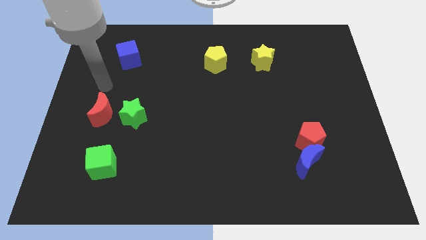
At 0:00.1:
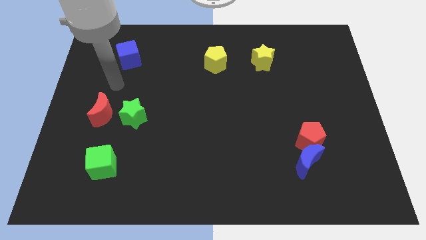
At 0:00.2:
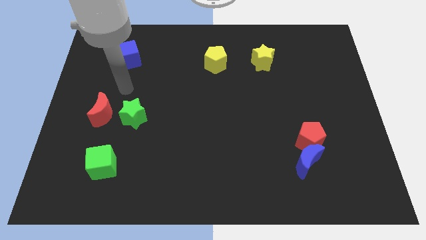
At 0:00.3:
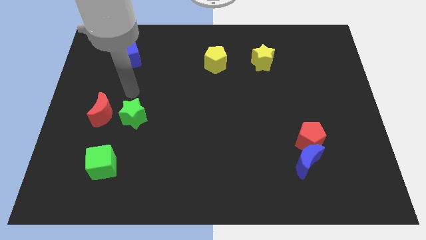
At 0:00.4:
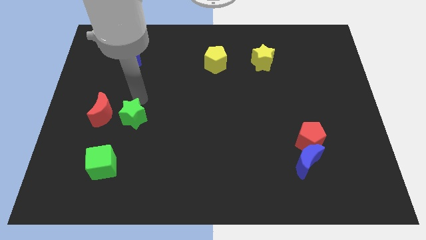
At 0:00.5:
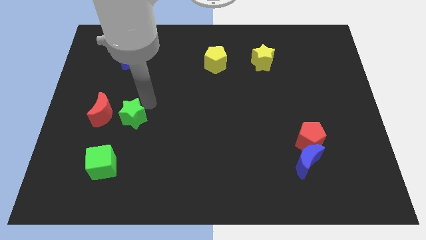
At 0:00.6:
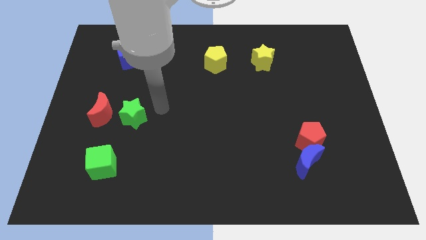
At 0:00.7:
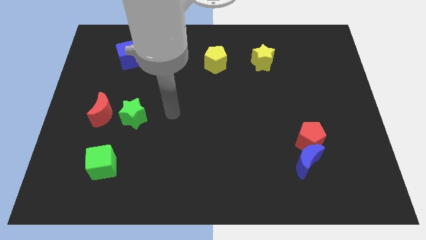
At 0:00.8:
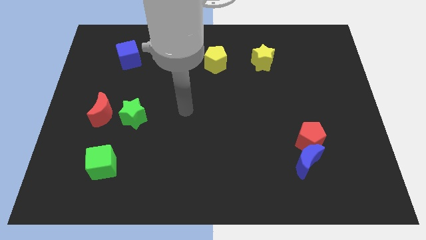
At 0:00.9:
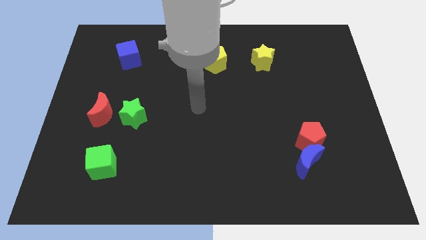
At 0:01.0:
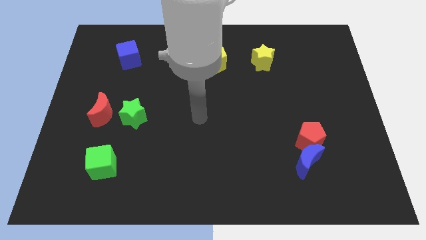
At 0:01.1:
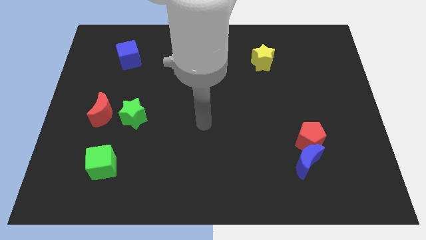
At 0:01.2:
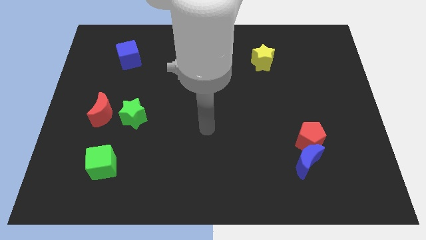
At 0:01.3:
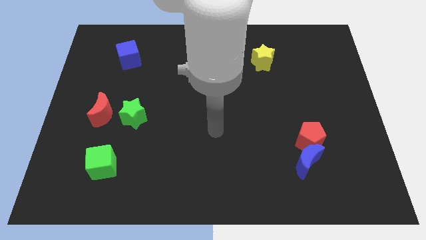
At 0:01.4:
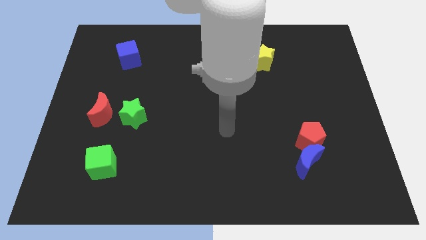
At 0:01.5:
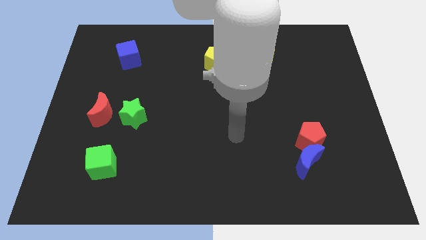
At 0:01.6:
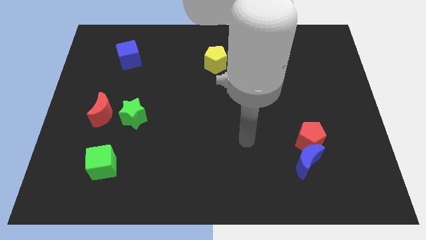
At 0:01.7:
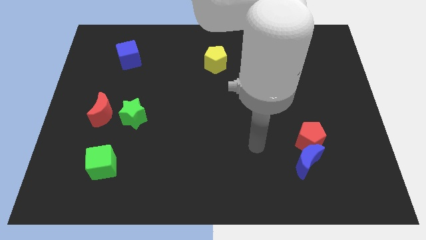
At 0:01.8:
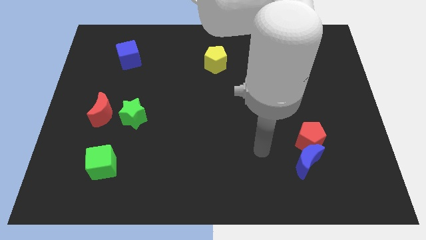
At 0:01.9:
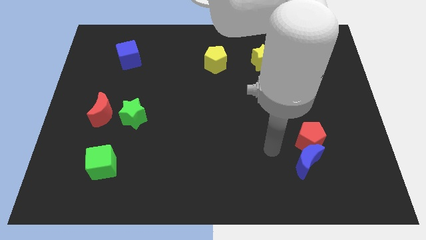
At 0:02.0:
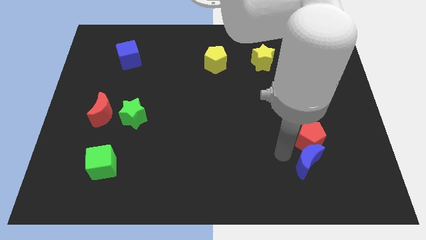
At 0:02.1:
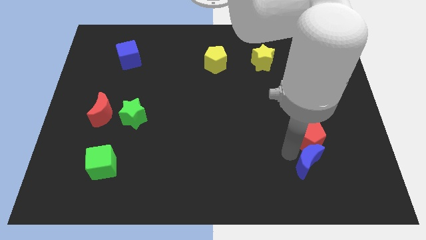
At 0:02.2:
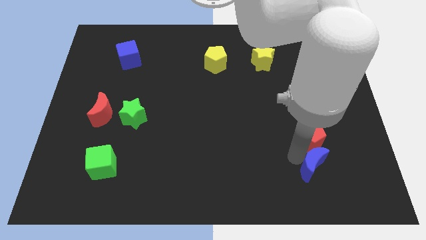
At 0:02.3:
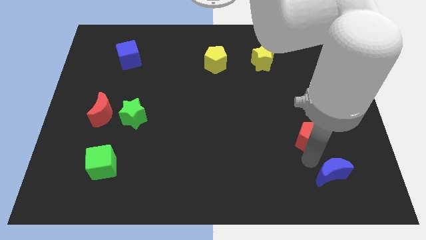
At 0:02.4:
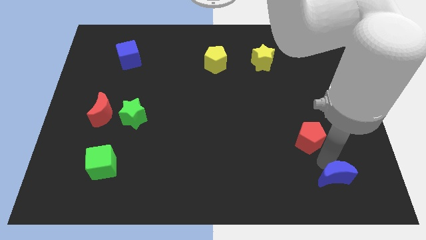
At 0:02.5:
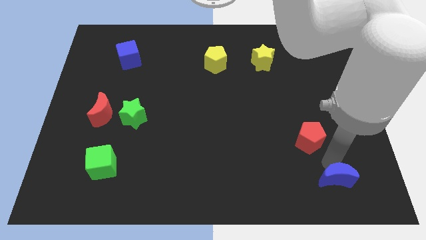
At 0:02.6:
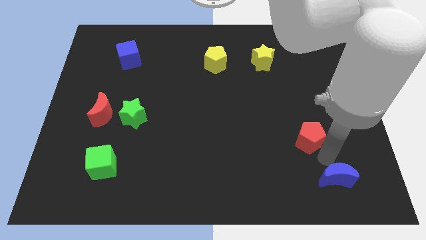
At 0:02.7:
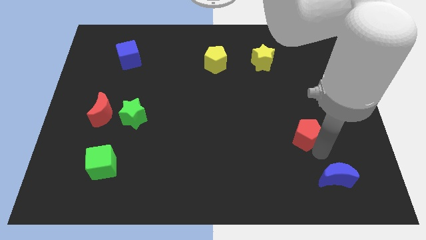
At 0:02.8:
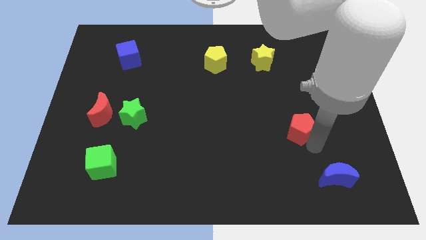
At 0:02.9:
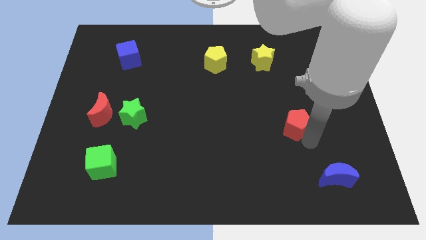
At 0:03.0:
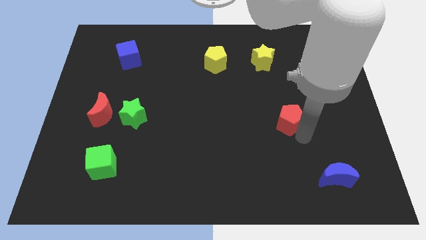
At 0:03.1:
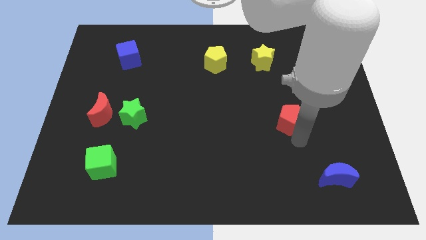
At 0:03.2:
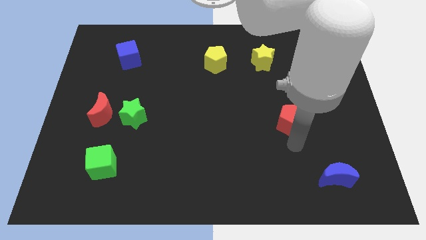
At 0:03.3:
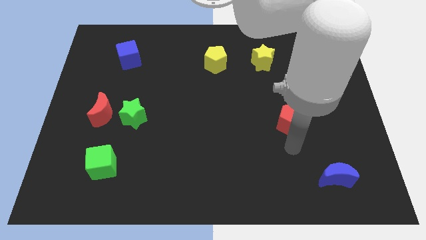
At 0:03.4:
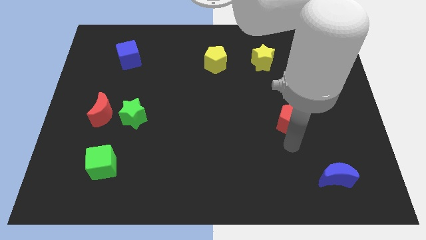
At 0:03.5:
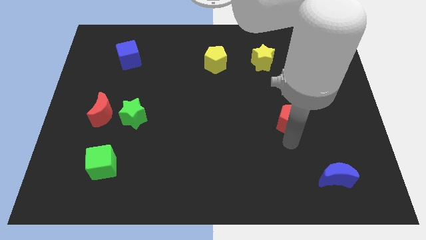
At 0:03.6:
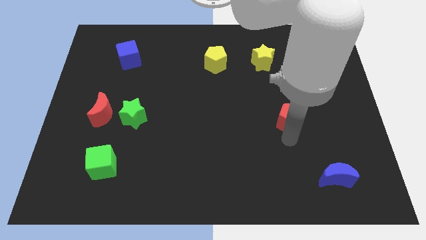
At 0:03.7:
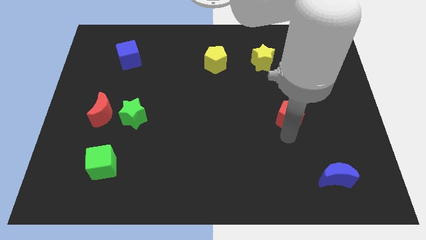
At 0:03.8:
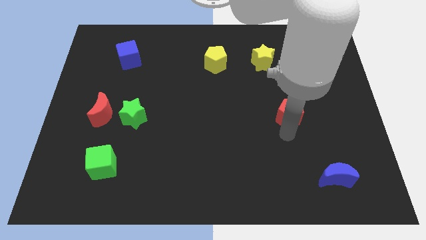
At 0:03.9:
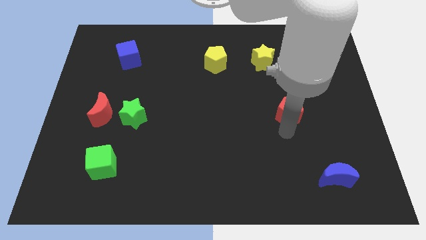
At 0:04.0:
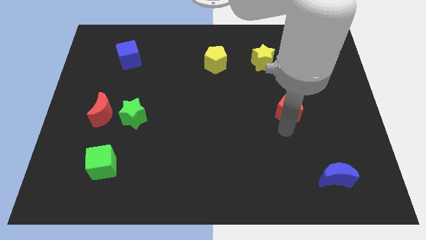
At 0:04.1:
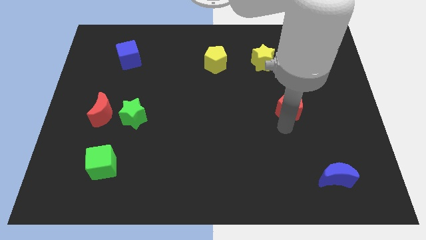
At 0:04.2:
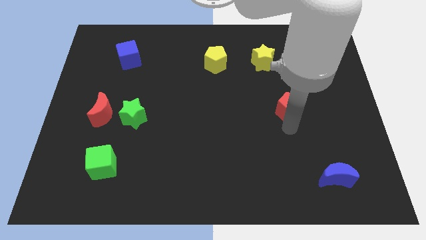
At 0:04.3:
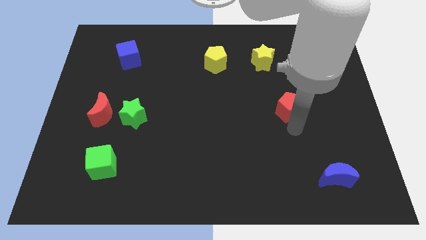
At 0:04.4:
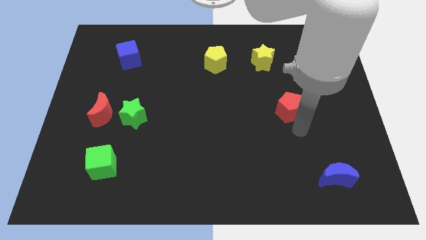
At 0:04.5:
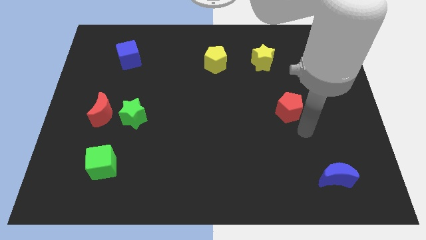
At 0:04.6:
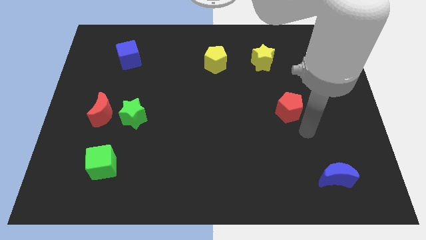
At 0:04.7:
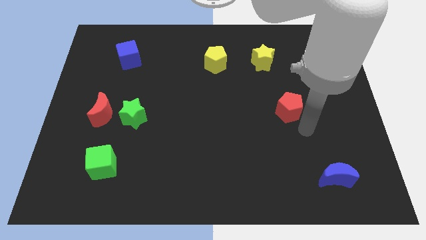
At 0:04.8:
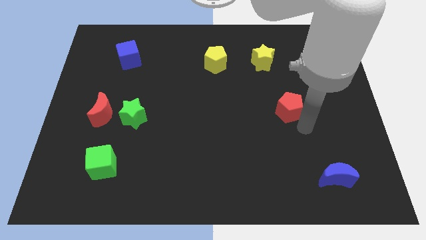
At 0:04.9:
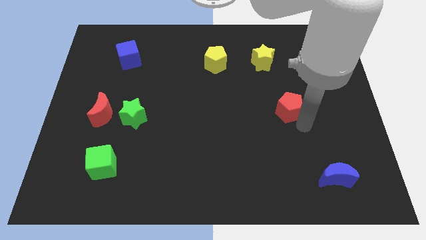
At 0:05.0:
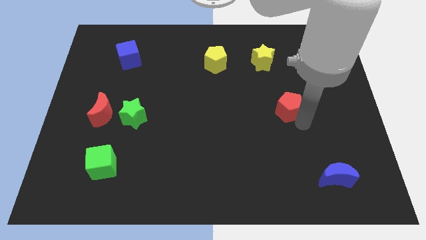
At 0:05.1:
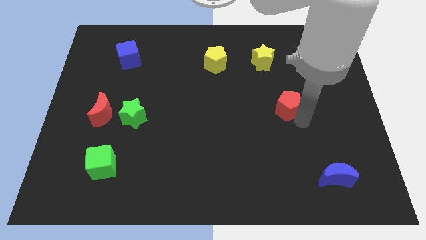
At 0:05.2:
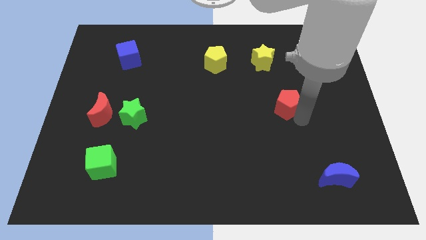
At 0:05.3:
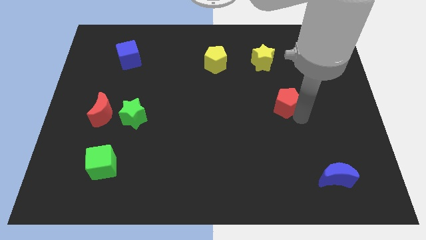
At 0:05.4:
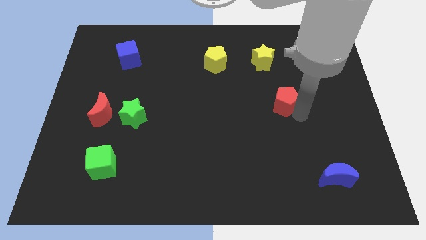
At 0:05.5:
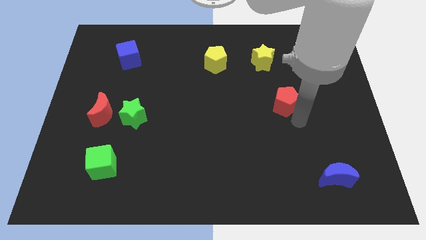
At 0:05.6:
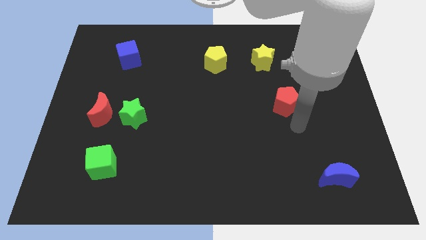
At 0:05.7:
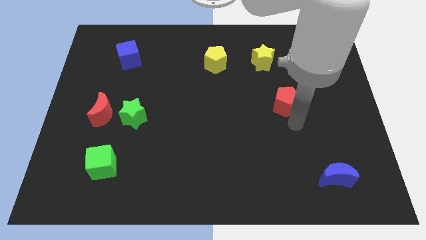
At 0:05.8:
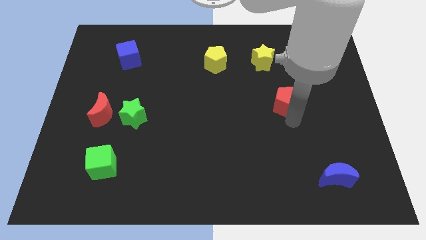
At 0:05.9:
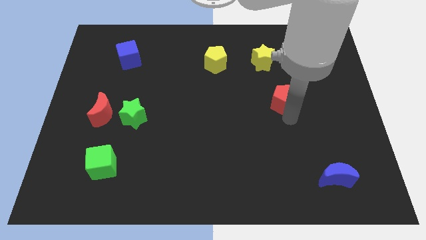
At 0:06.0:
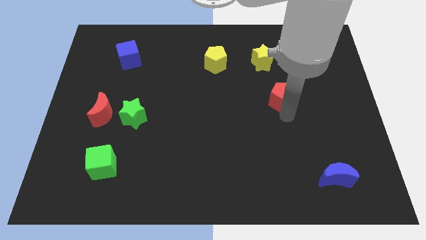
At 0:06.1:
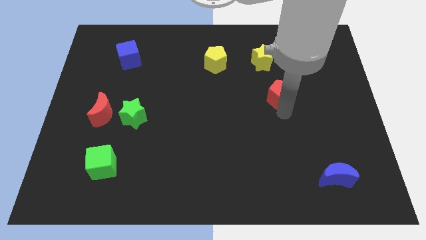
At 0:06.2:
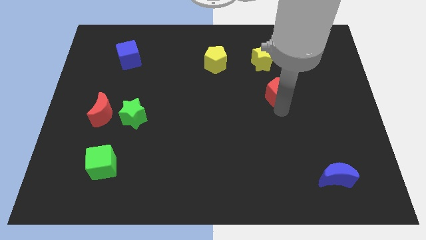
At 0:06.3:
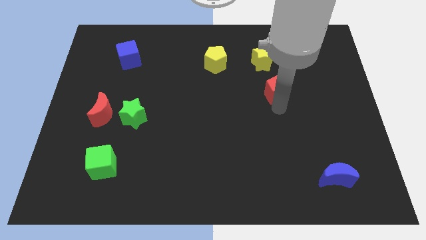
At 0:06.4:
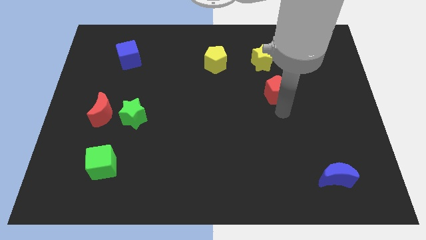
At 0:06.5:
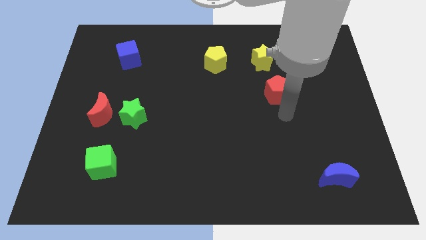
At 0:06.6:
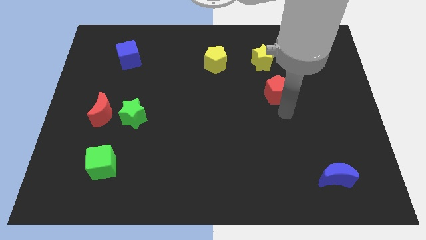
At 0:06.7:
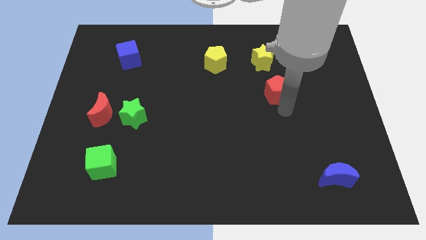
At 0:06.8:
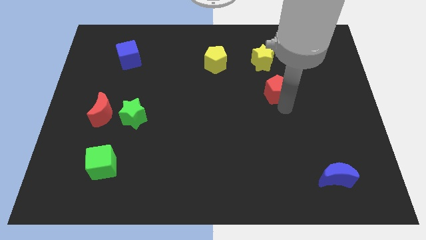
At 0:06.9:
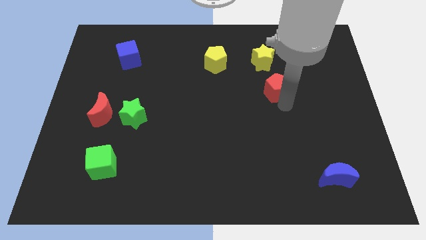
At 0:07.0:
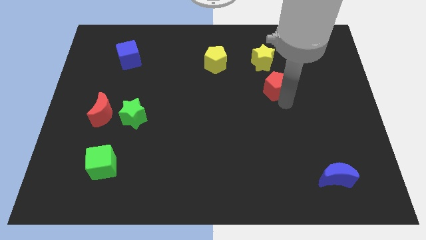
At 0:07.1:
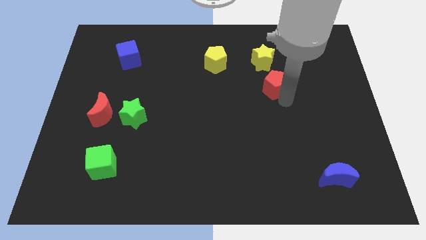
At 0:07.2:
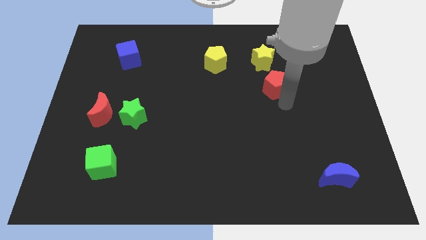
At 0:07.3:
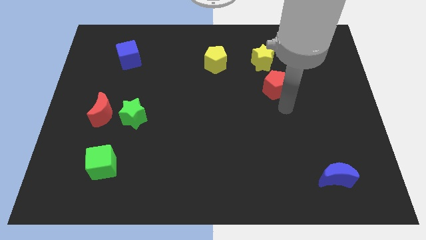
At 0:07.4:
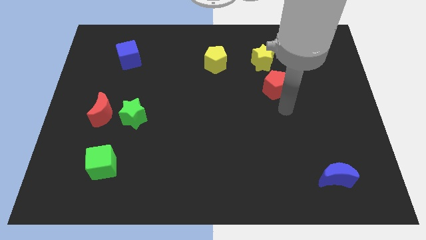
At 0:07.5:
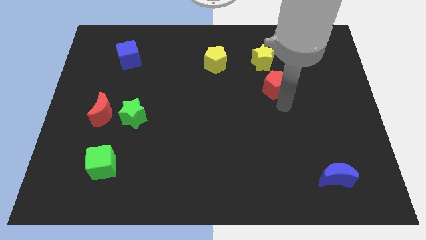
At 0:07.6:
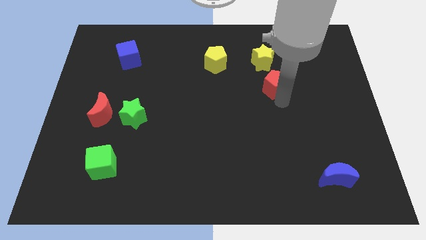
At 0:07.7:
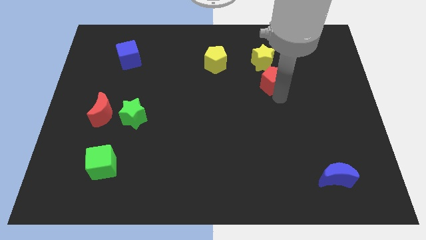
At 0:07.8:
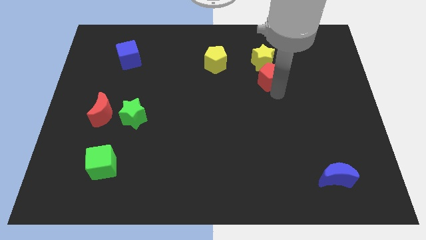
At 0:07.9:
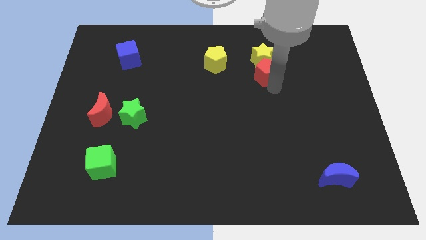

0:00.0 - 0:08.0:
put the red pentagon close to the yellow star
